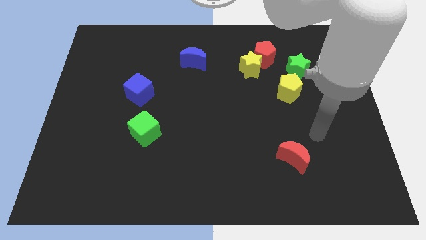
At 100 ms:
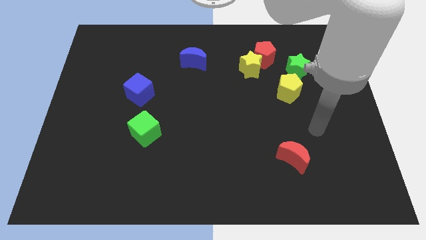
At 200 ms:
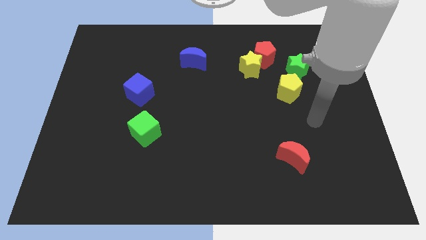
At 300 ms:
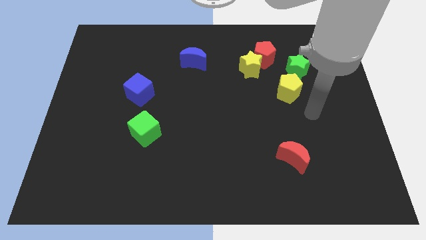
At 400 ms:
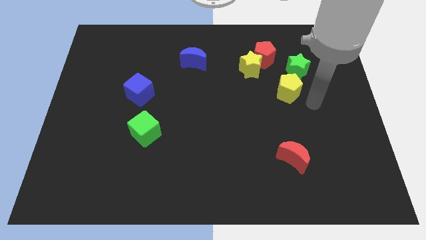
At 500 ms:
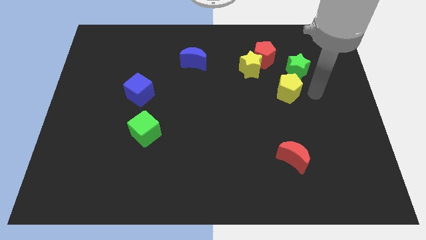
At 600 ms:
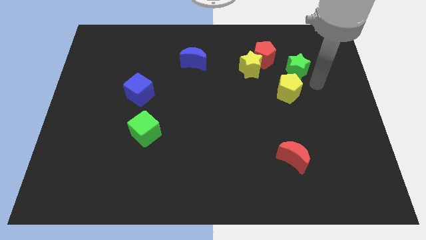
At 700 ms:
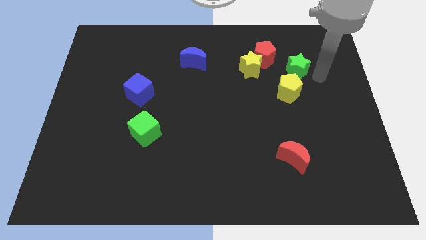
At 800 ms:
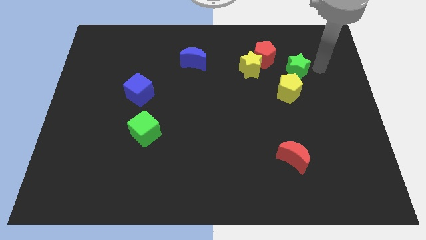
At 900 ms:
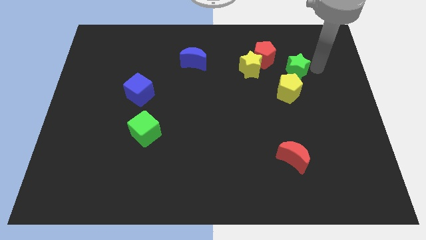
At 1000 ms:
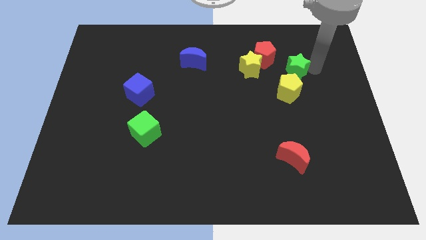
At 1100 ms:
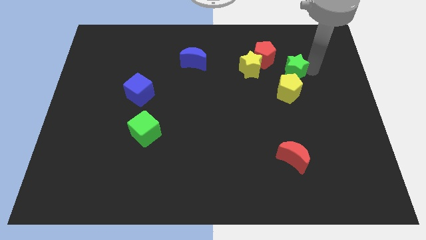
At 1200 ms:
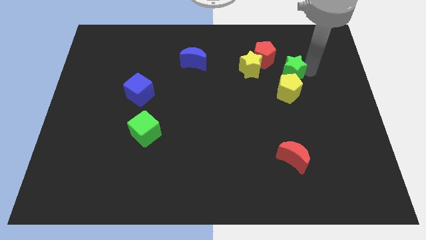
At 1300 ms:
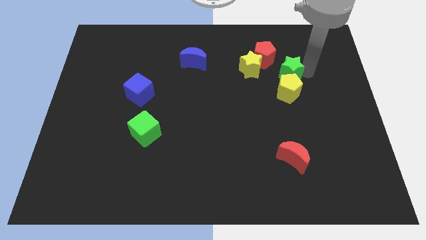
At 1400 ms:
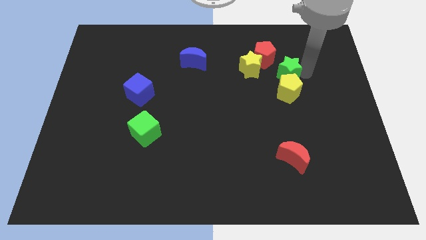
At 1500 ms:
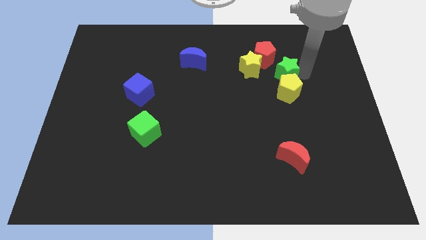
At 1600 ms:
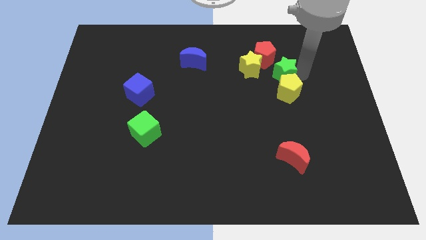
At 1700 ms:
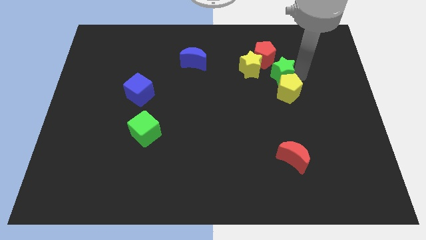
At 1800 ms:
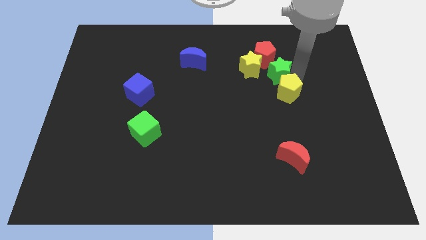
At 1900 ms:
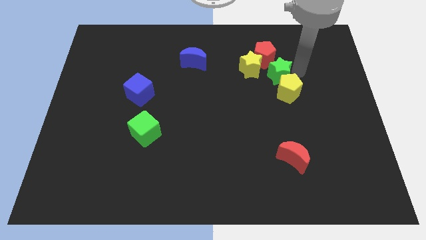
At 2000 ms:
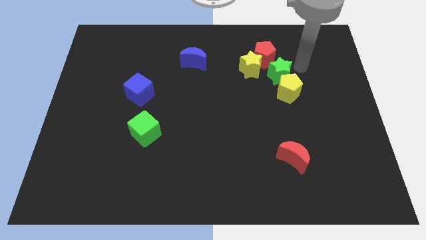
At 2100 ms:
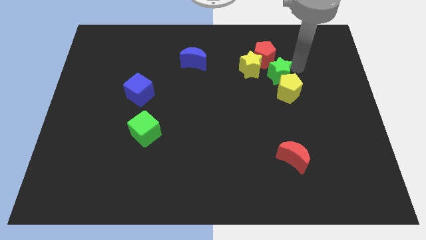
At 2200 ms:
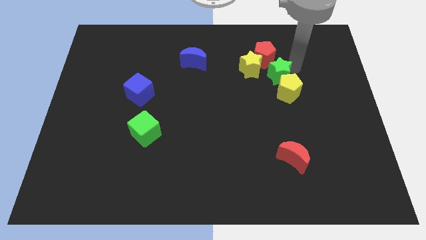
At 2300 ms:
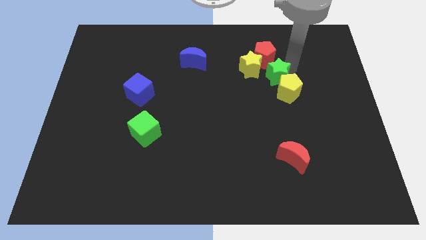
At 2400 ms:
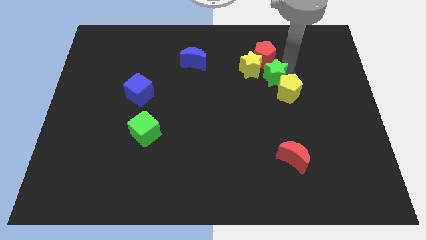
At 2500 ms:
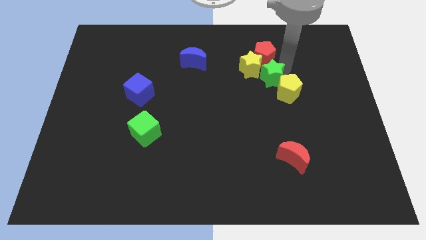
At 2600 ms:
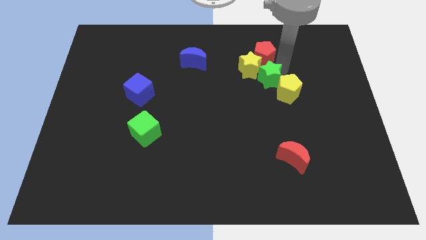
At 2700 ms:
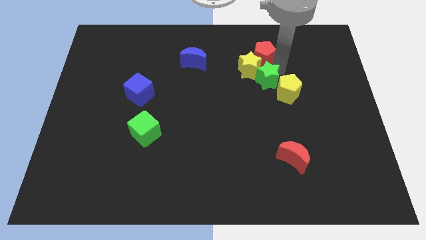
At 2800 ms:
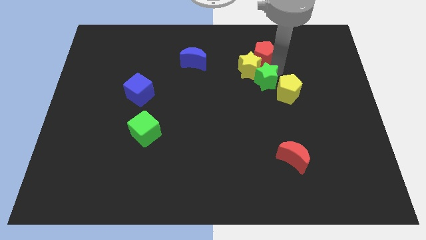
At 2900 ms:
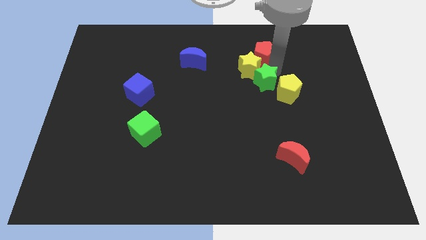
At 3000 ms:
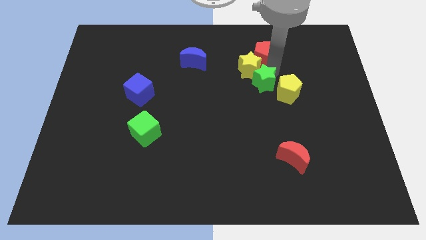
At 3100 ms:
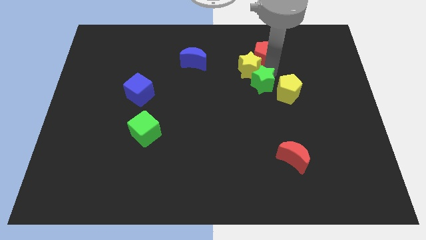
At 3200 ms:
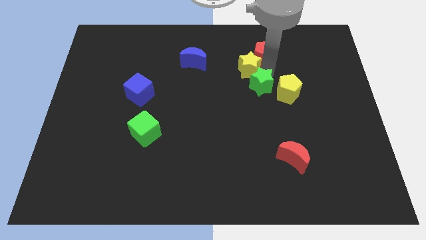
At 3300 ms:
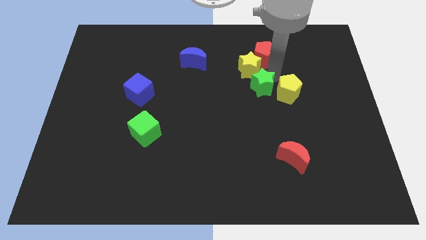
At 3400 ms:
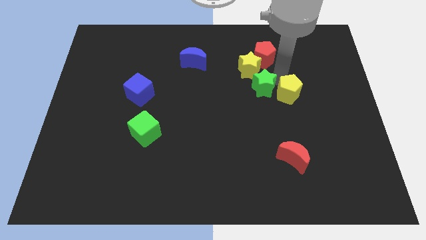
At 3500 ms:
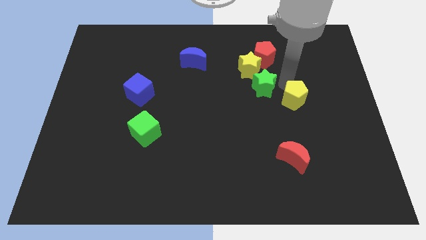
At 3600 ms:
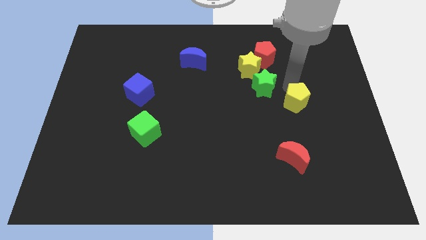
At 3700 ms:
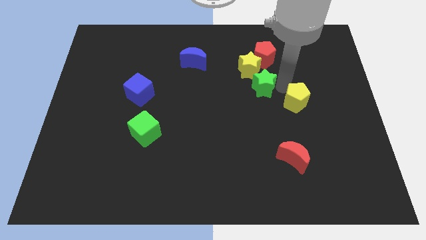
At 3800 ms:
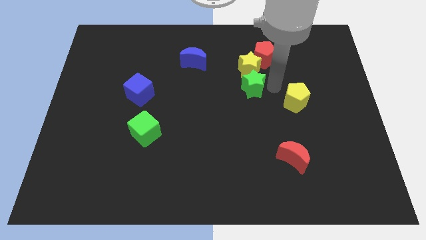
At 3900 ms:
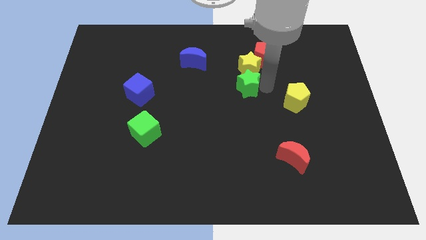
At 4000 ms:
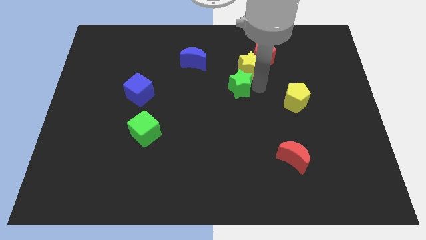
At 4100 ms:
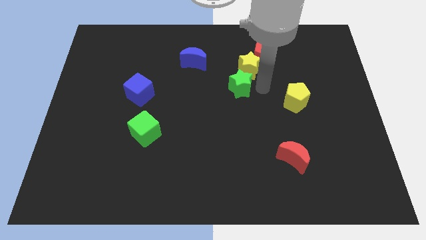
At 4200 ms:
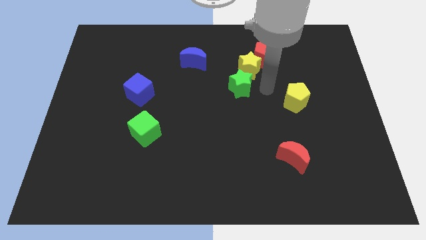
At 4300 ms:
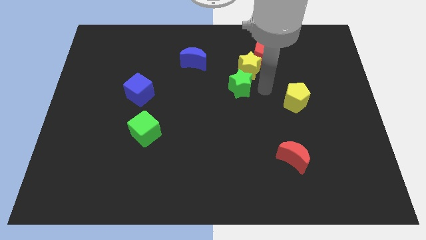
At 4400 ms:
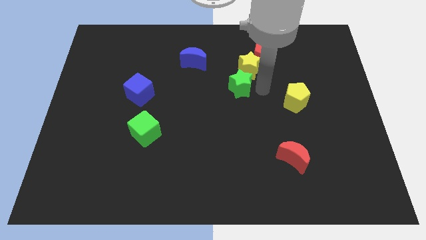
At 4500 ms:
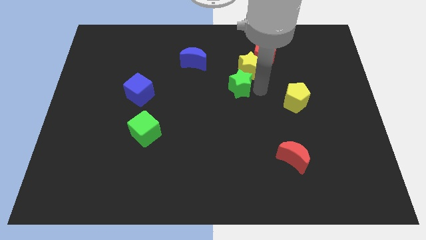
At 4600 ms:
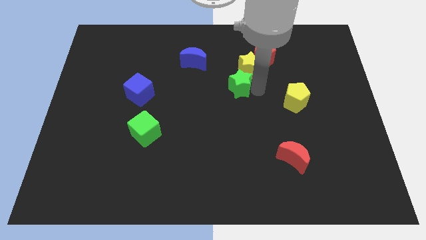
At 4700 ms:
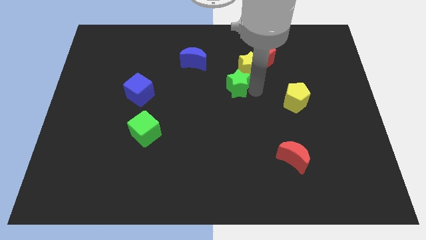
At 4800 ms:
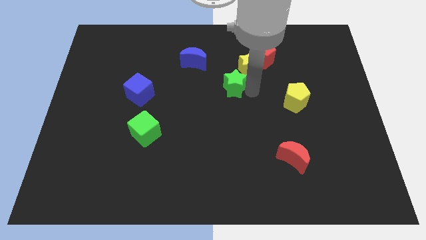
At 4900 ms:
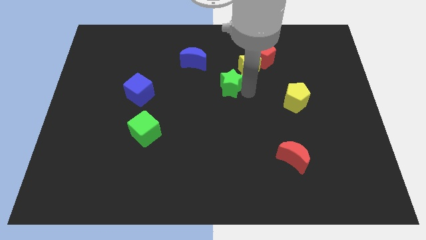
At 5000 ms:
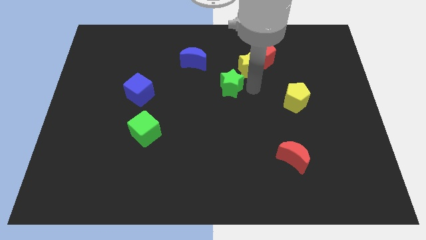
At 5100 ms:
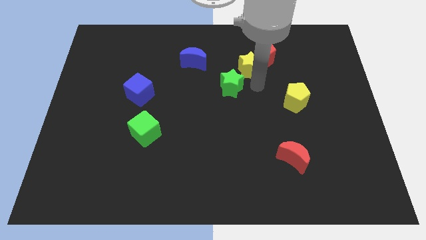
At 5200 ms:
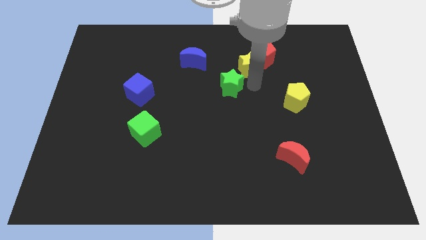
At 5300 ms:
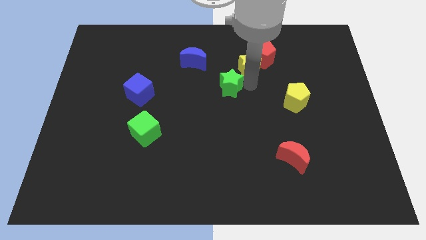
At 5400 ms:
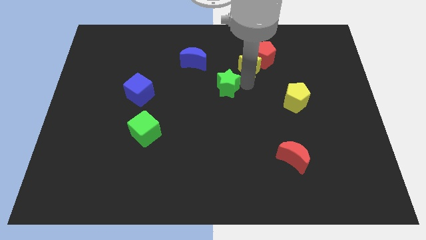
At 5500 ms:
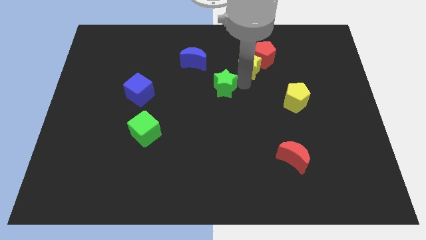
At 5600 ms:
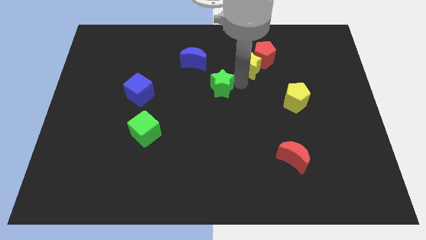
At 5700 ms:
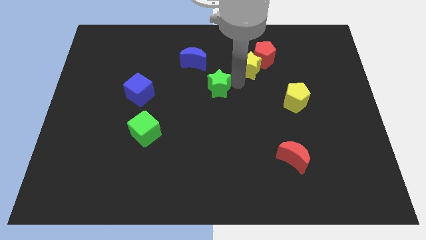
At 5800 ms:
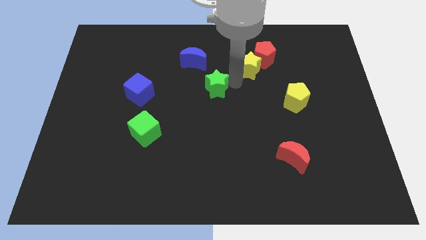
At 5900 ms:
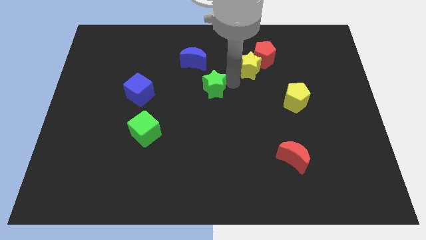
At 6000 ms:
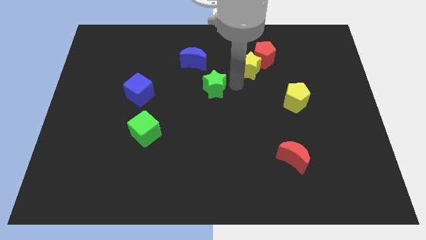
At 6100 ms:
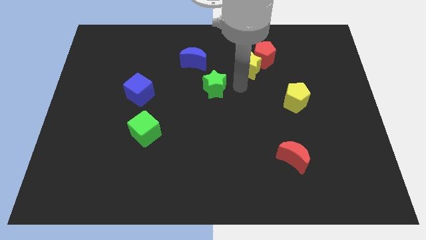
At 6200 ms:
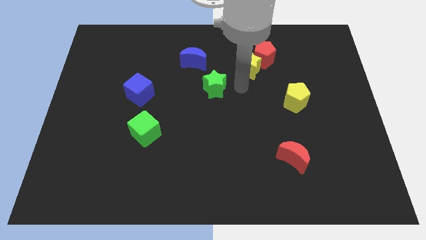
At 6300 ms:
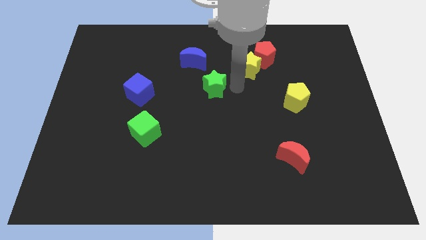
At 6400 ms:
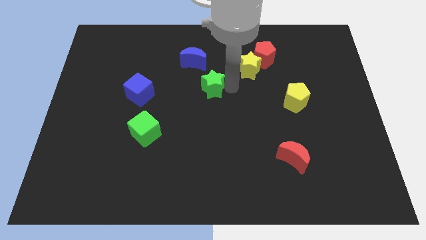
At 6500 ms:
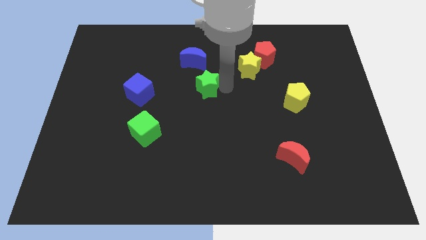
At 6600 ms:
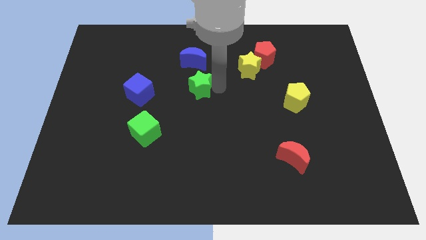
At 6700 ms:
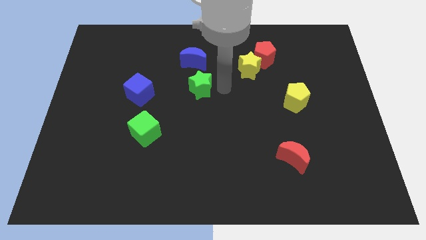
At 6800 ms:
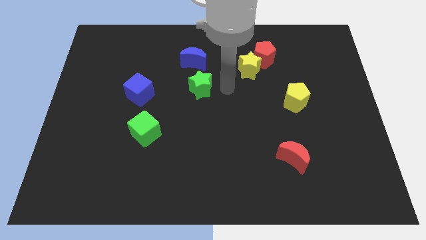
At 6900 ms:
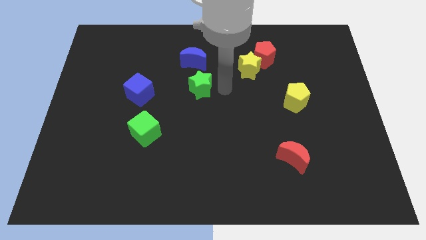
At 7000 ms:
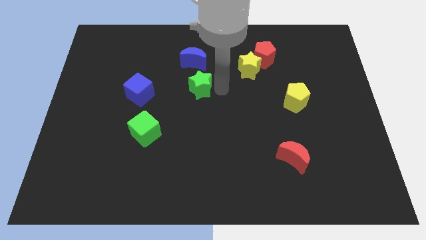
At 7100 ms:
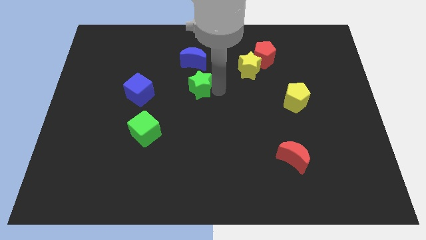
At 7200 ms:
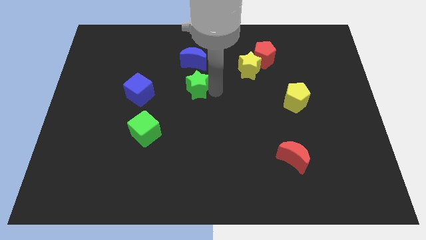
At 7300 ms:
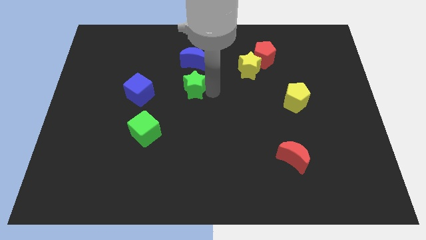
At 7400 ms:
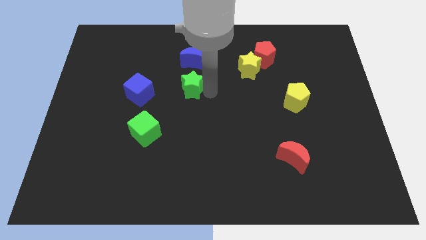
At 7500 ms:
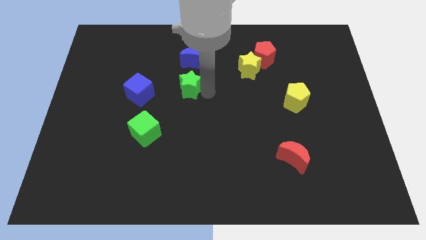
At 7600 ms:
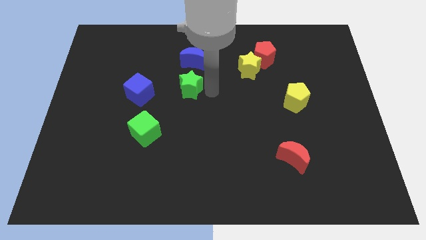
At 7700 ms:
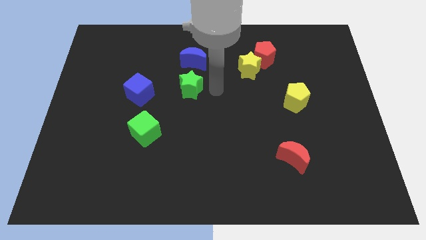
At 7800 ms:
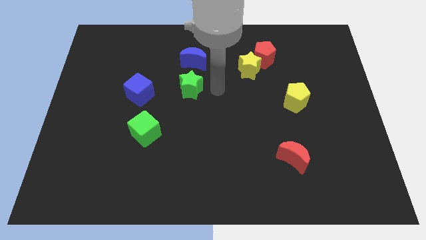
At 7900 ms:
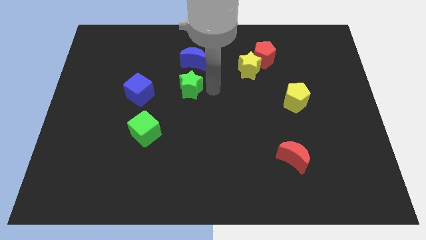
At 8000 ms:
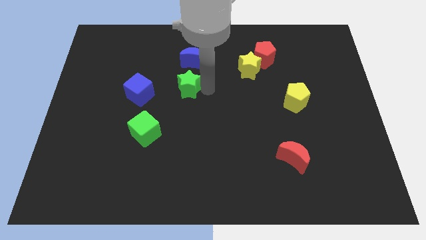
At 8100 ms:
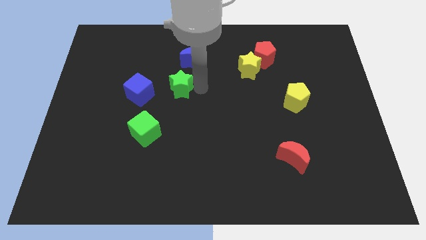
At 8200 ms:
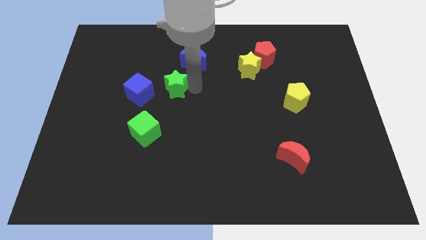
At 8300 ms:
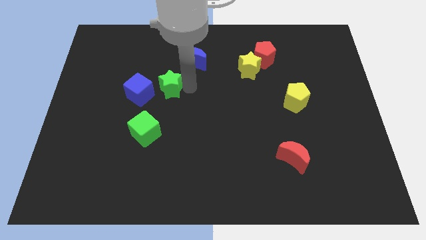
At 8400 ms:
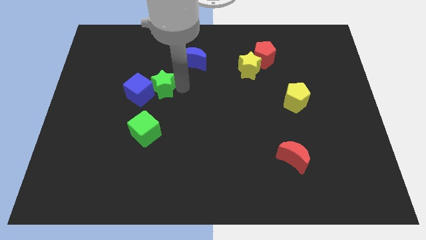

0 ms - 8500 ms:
move the green star next to the blue cube
